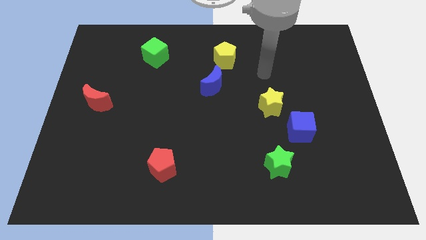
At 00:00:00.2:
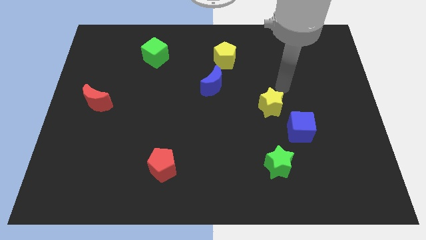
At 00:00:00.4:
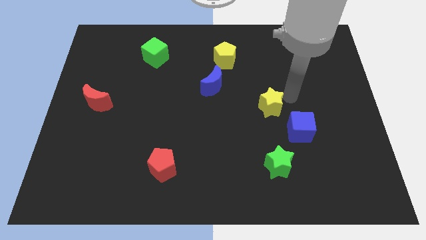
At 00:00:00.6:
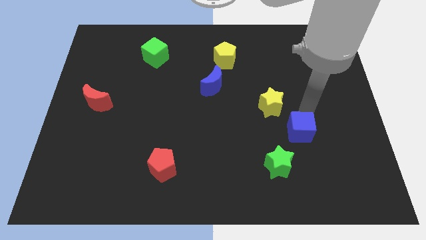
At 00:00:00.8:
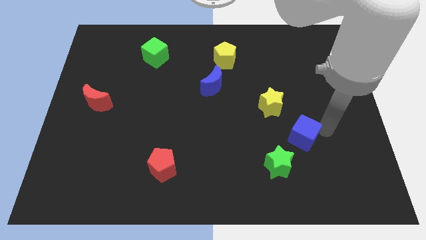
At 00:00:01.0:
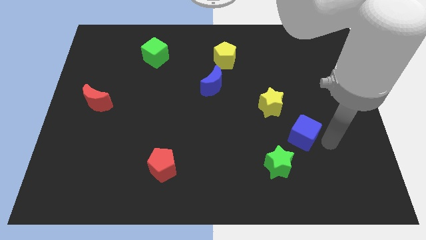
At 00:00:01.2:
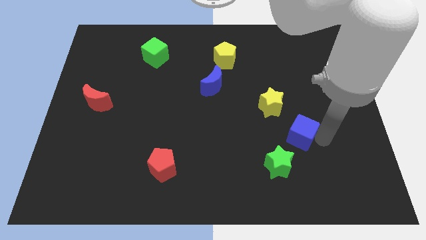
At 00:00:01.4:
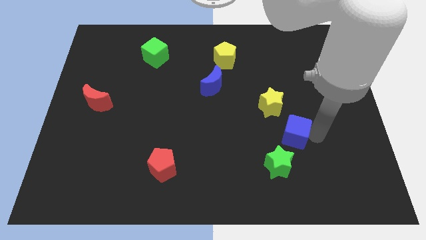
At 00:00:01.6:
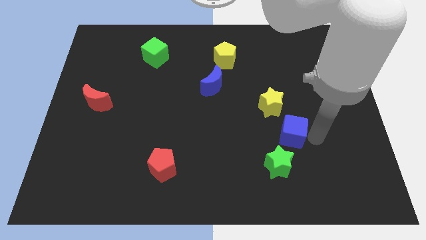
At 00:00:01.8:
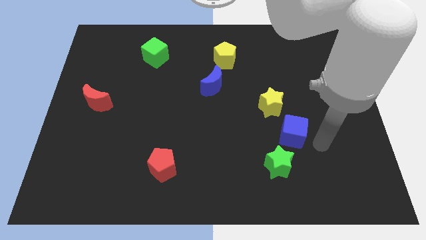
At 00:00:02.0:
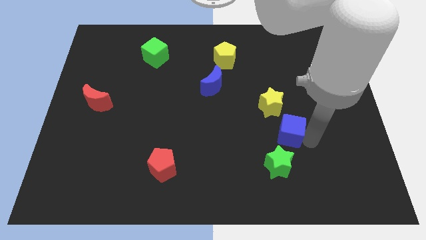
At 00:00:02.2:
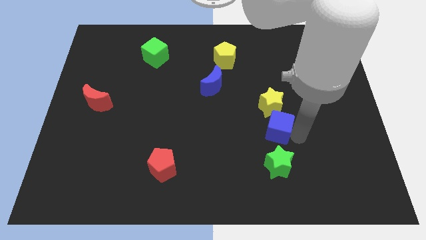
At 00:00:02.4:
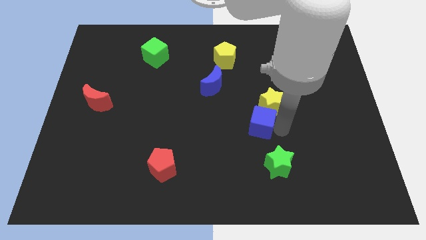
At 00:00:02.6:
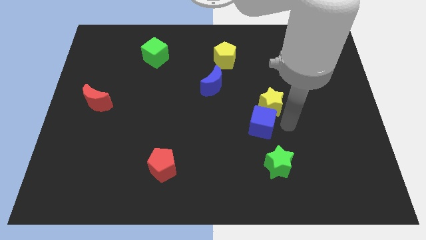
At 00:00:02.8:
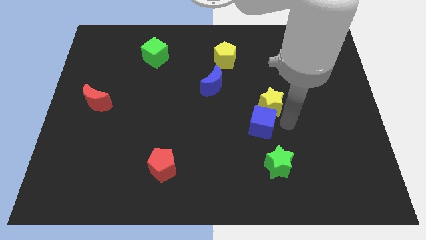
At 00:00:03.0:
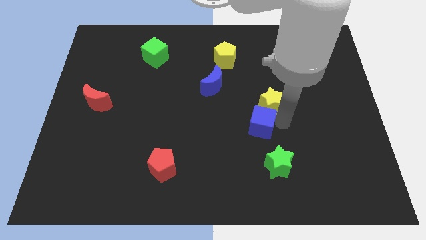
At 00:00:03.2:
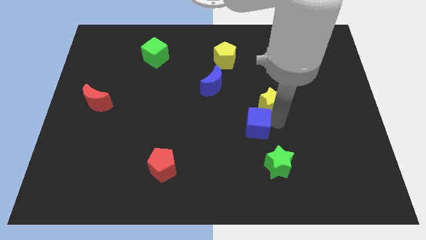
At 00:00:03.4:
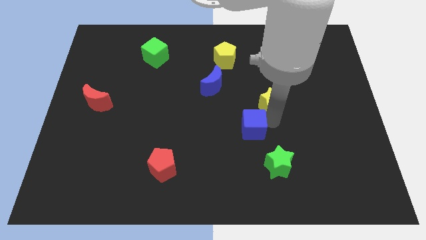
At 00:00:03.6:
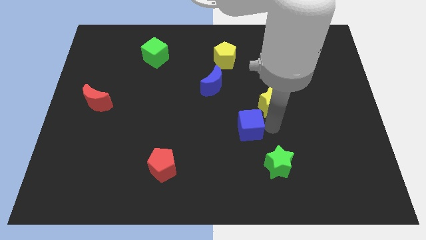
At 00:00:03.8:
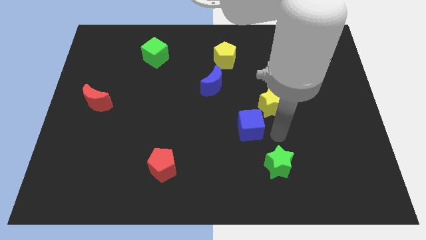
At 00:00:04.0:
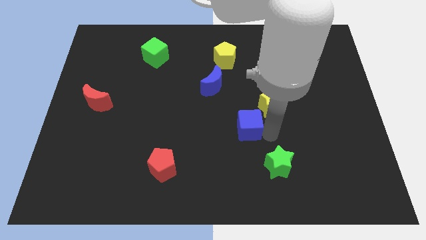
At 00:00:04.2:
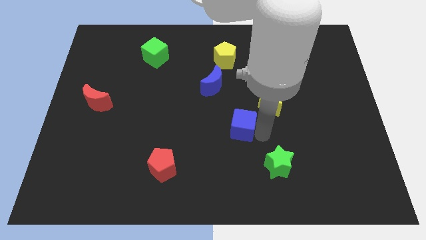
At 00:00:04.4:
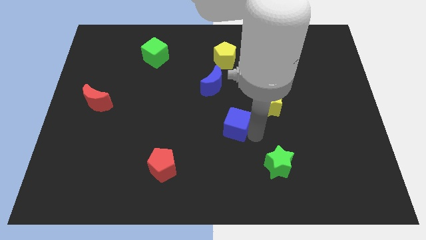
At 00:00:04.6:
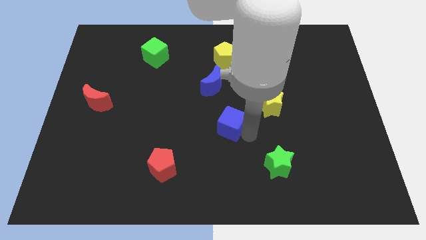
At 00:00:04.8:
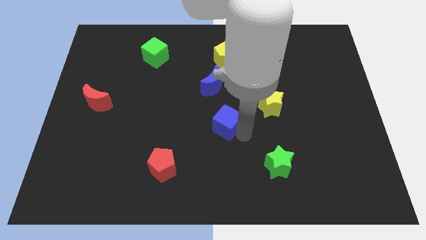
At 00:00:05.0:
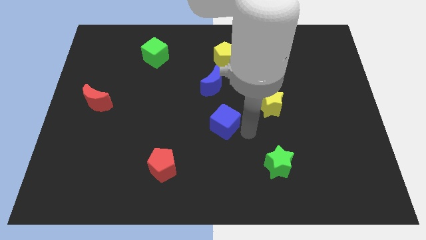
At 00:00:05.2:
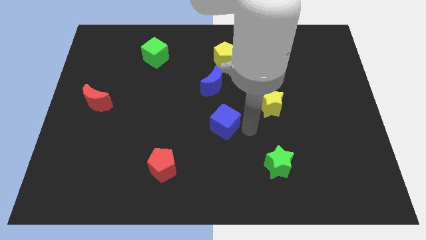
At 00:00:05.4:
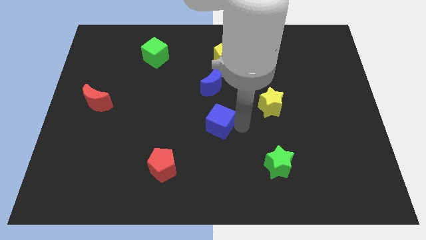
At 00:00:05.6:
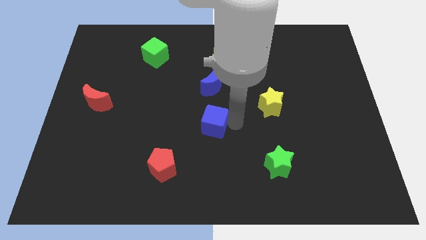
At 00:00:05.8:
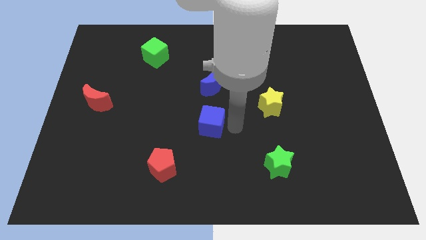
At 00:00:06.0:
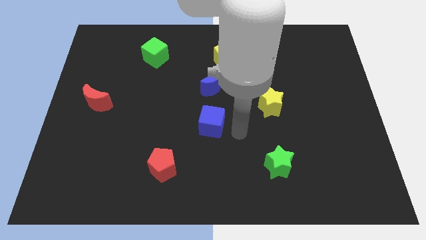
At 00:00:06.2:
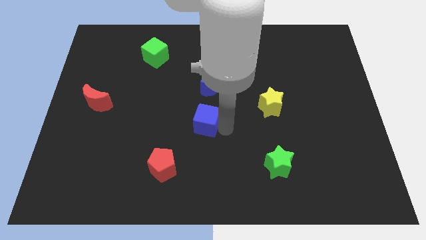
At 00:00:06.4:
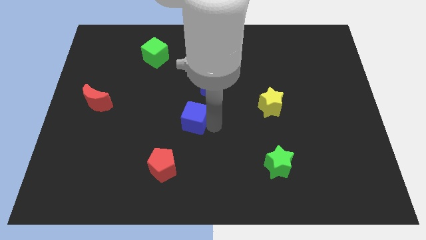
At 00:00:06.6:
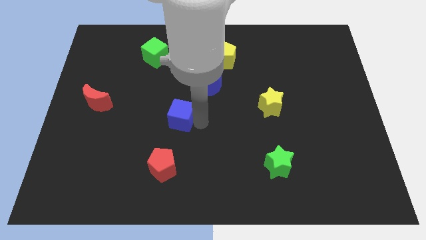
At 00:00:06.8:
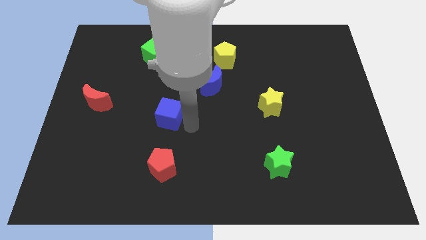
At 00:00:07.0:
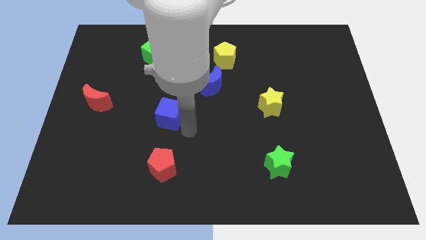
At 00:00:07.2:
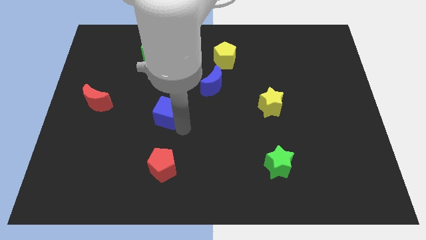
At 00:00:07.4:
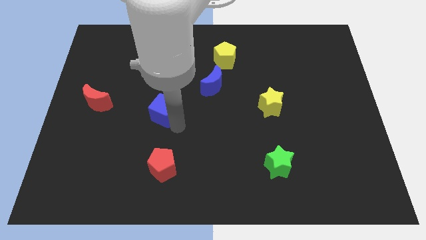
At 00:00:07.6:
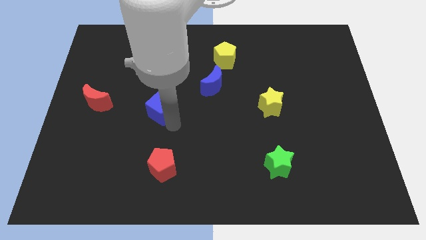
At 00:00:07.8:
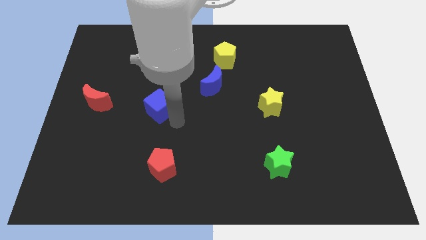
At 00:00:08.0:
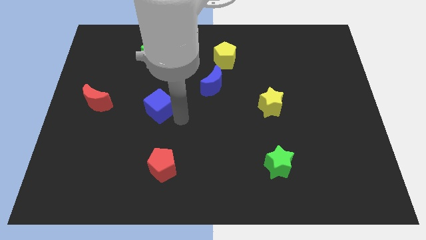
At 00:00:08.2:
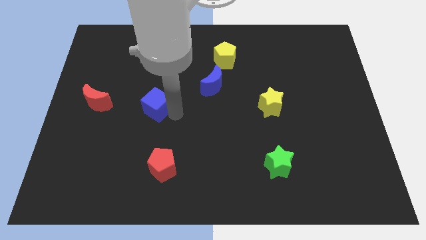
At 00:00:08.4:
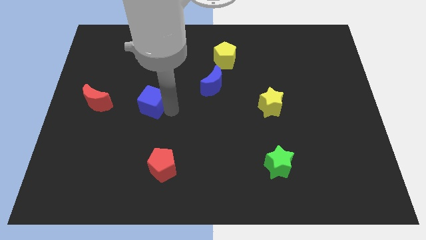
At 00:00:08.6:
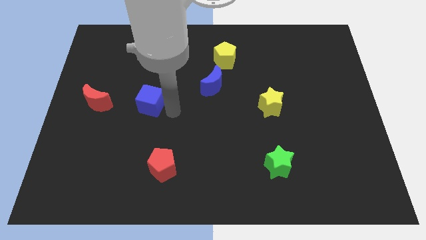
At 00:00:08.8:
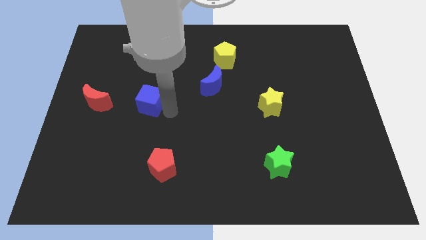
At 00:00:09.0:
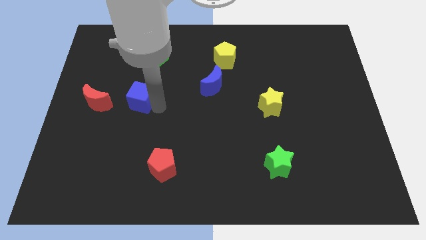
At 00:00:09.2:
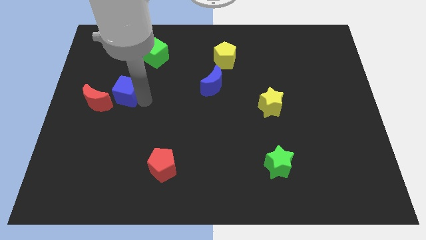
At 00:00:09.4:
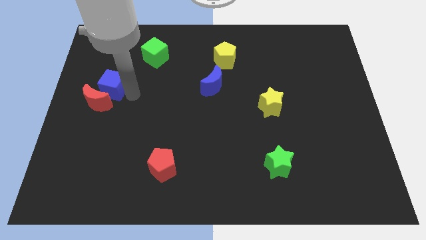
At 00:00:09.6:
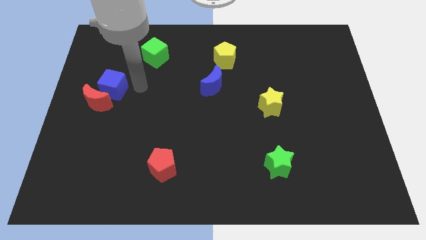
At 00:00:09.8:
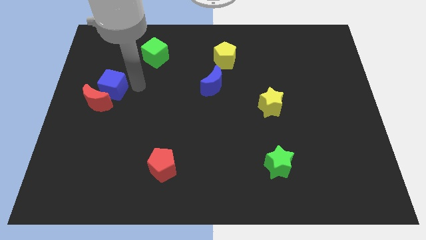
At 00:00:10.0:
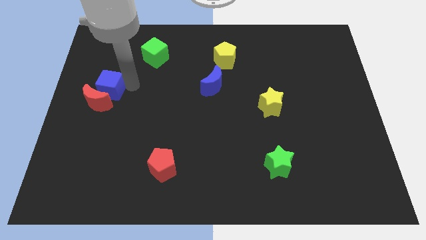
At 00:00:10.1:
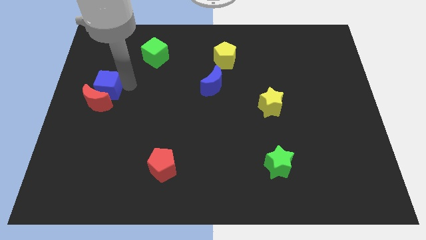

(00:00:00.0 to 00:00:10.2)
put the blue cube to the left side of the board

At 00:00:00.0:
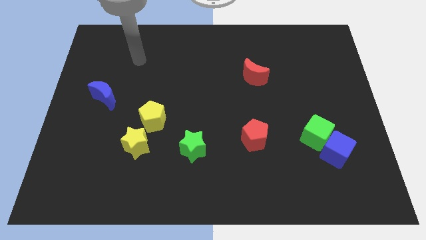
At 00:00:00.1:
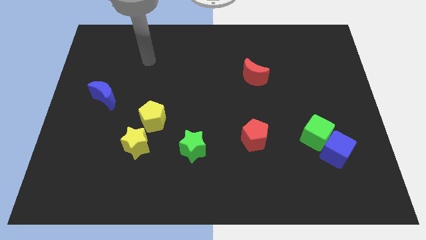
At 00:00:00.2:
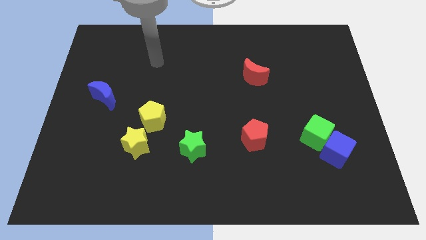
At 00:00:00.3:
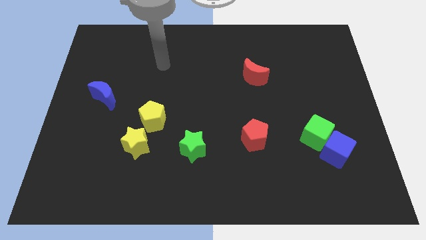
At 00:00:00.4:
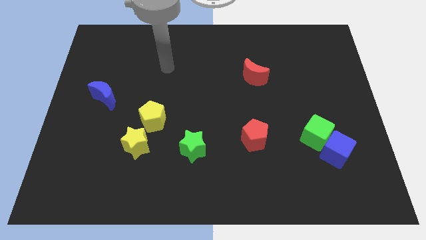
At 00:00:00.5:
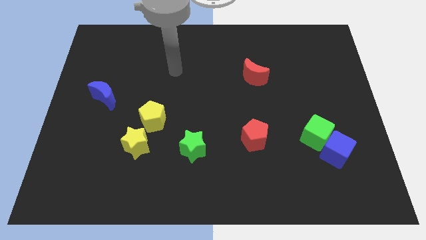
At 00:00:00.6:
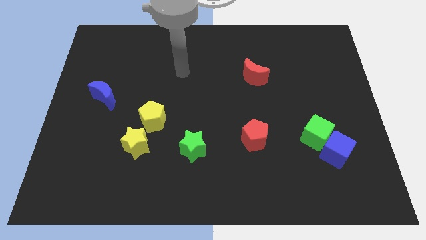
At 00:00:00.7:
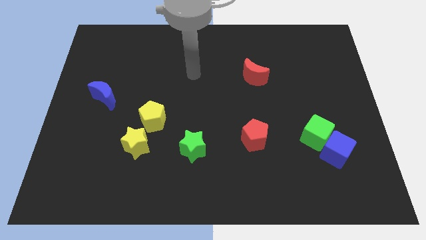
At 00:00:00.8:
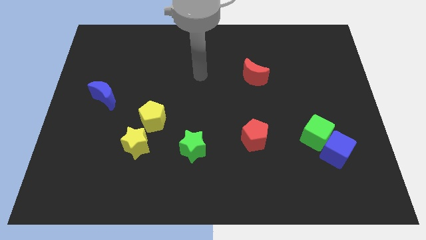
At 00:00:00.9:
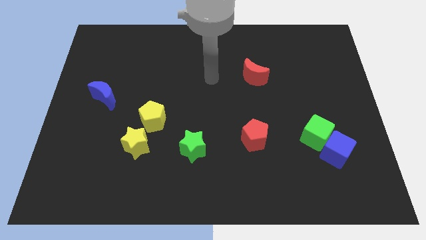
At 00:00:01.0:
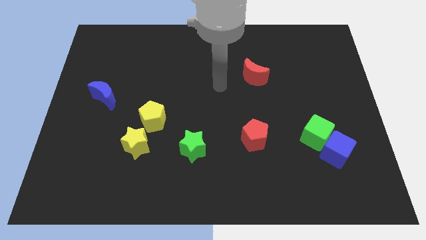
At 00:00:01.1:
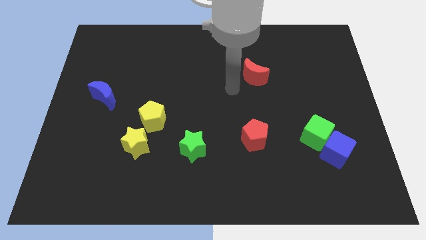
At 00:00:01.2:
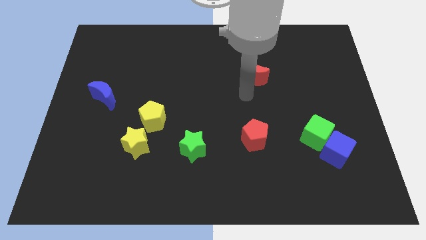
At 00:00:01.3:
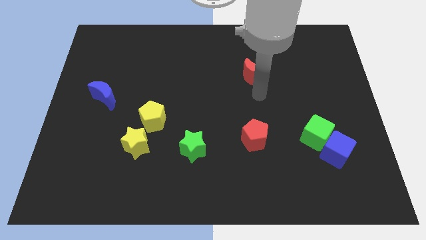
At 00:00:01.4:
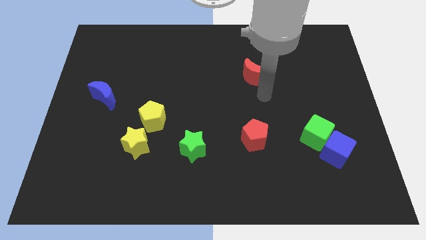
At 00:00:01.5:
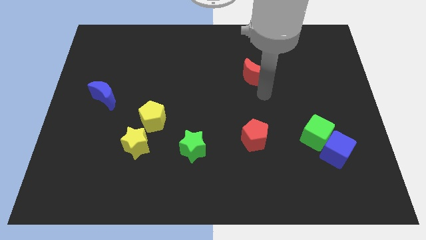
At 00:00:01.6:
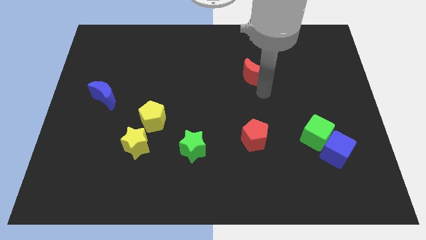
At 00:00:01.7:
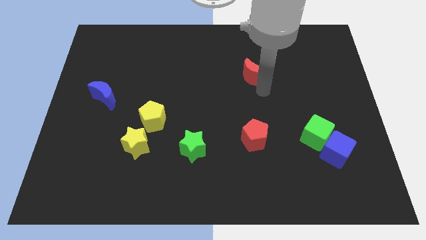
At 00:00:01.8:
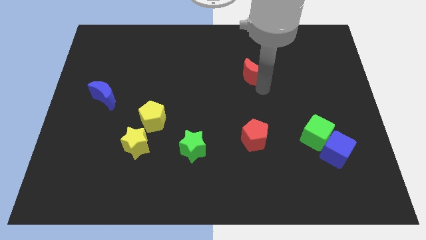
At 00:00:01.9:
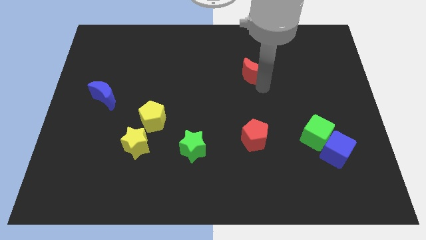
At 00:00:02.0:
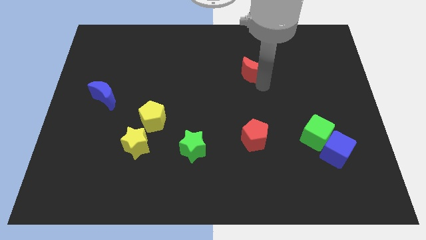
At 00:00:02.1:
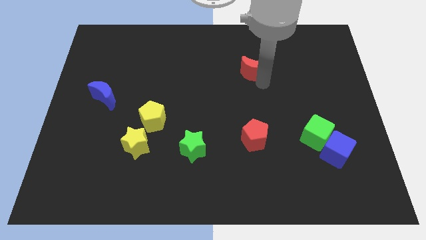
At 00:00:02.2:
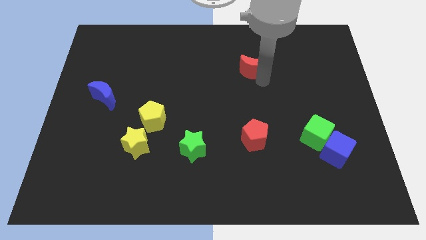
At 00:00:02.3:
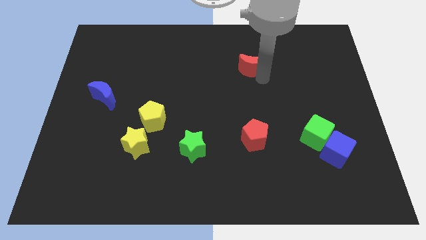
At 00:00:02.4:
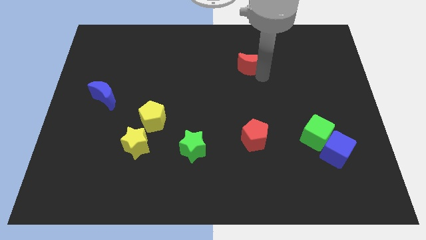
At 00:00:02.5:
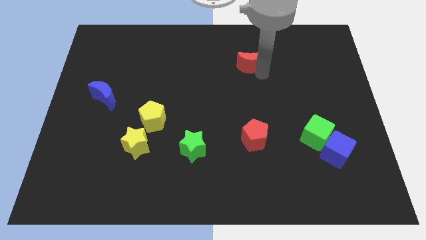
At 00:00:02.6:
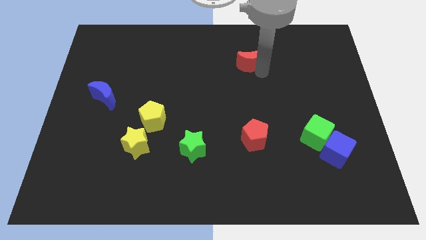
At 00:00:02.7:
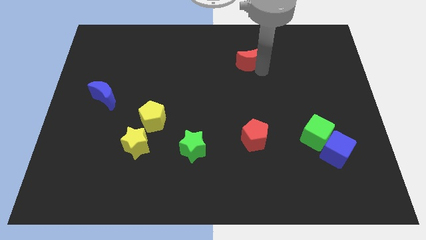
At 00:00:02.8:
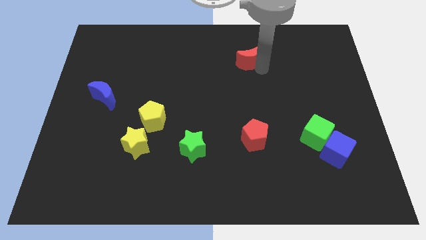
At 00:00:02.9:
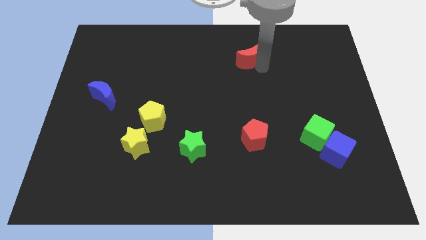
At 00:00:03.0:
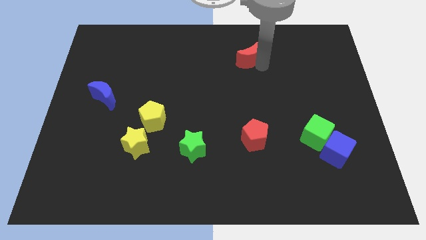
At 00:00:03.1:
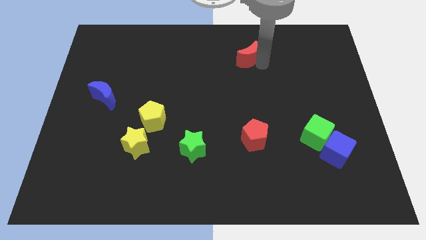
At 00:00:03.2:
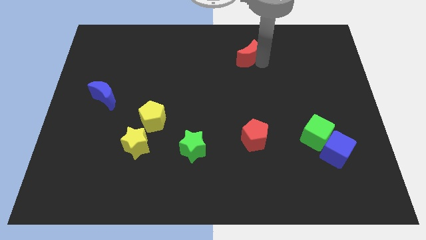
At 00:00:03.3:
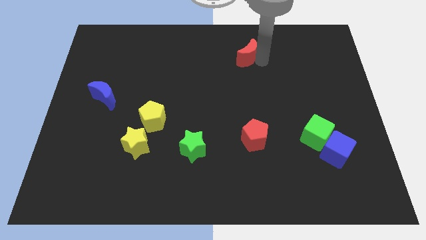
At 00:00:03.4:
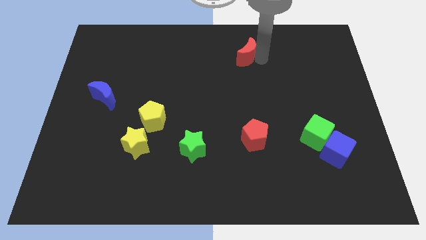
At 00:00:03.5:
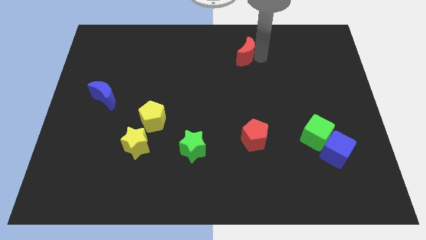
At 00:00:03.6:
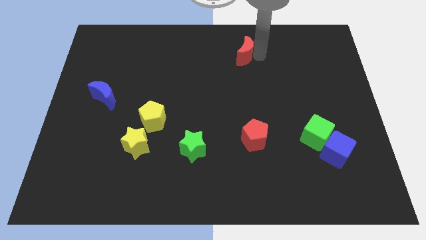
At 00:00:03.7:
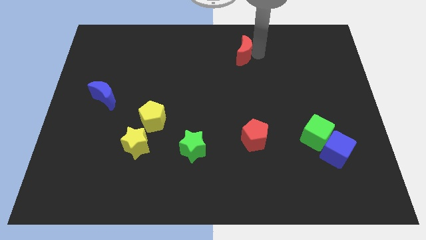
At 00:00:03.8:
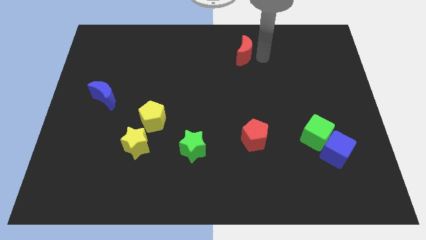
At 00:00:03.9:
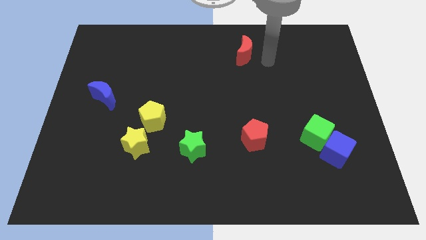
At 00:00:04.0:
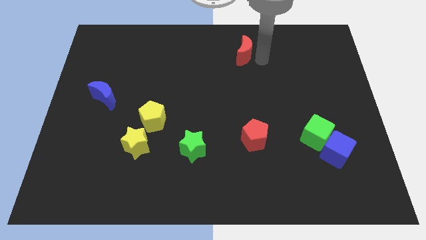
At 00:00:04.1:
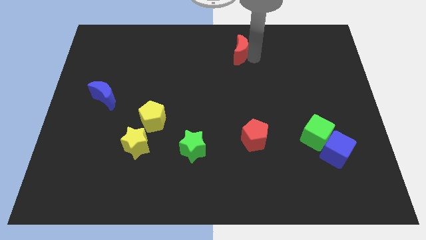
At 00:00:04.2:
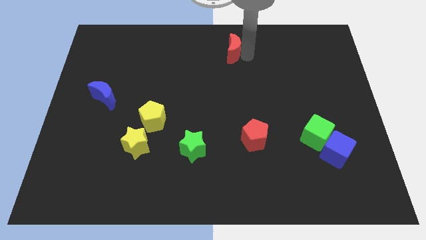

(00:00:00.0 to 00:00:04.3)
push the red moon to the top side
